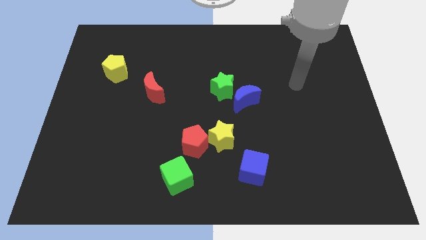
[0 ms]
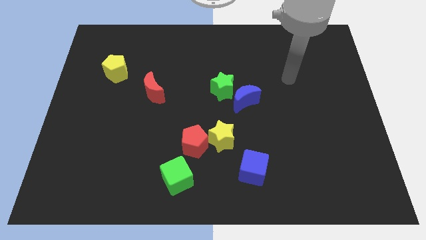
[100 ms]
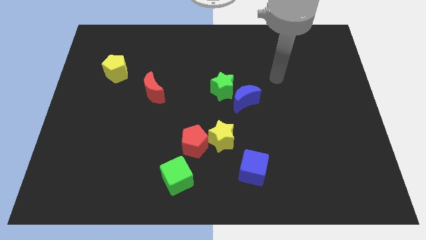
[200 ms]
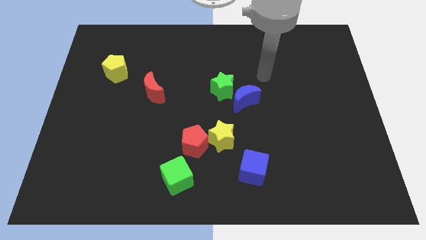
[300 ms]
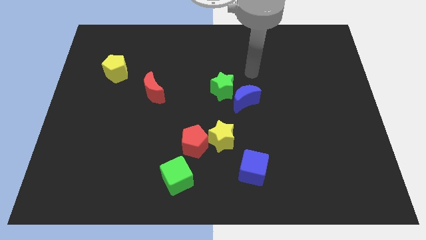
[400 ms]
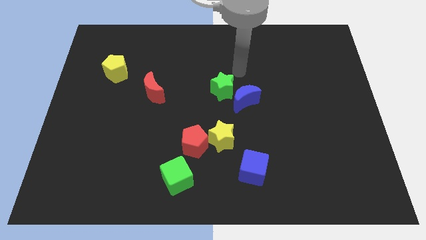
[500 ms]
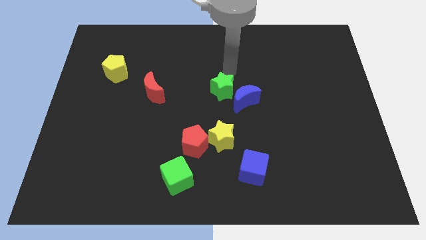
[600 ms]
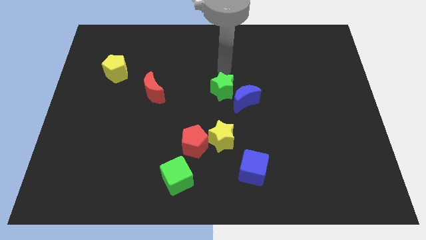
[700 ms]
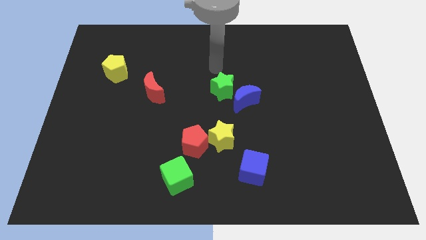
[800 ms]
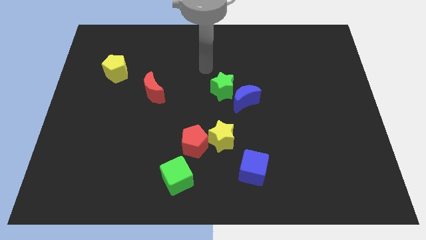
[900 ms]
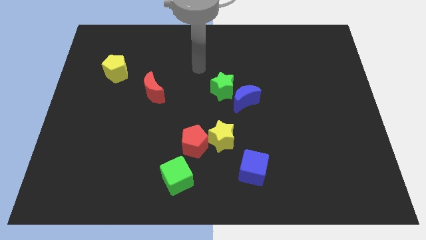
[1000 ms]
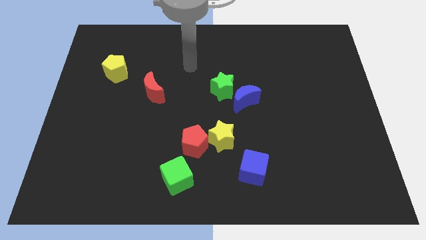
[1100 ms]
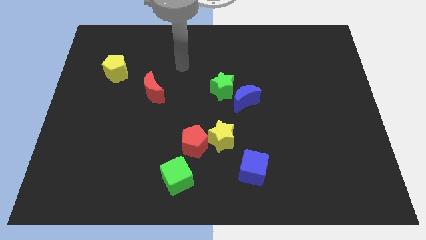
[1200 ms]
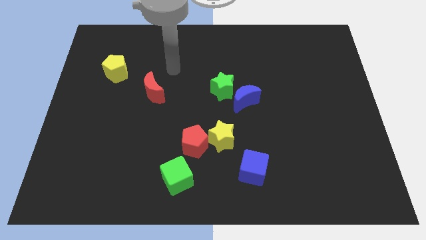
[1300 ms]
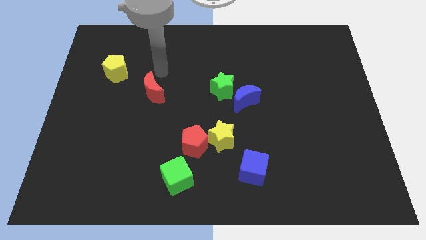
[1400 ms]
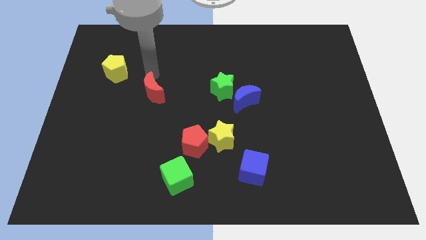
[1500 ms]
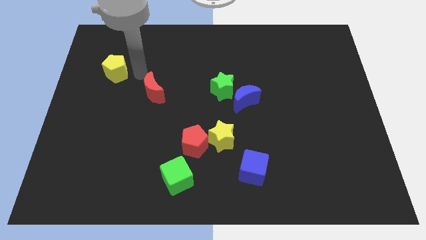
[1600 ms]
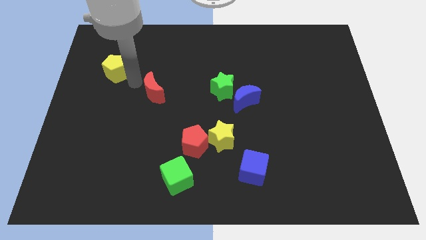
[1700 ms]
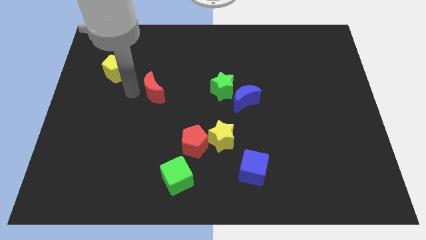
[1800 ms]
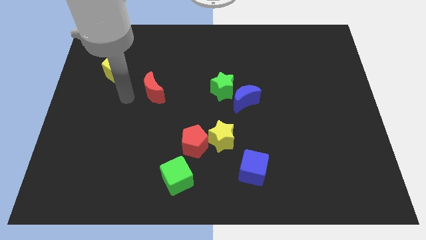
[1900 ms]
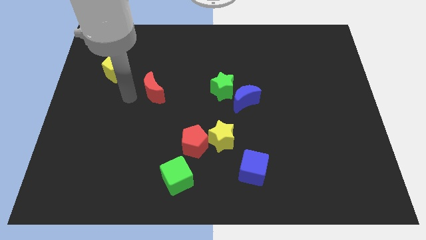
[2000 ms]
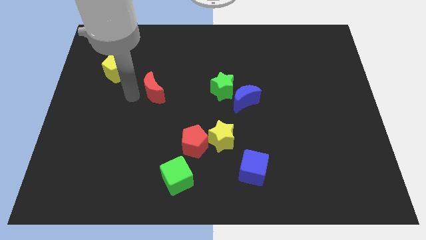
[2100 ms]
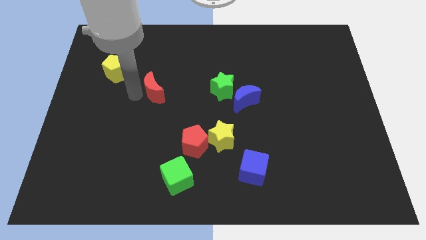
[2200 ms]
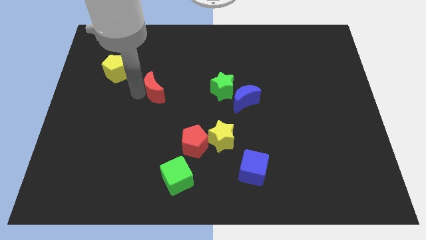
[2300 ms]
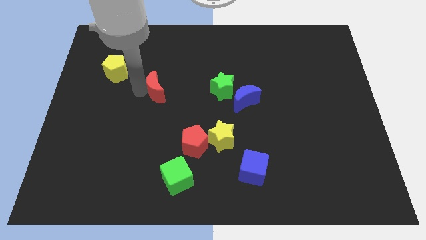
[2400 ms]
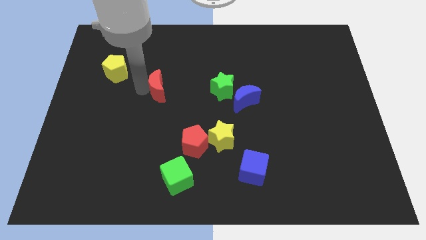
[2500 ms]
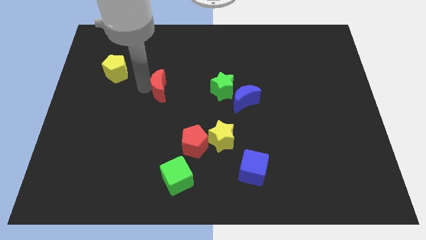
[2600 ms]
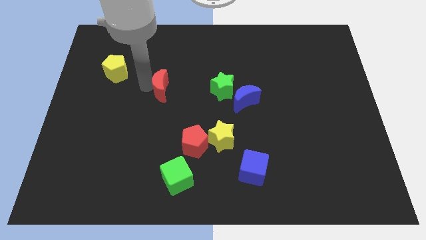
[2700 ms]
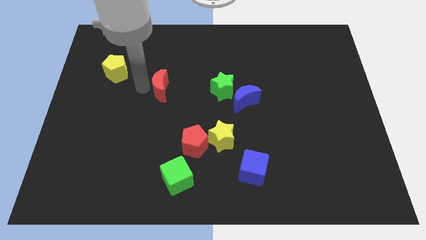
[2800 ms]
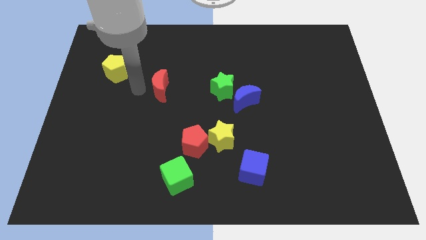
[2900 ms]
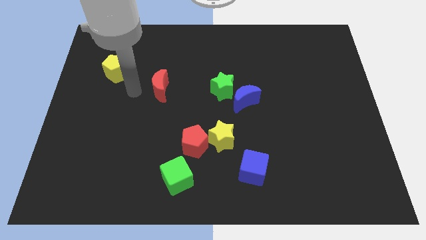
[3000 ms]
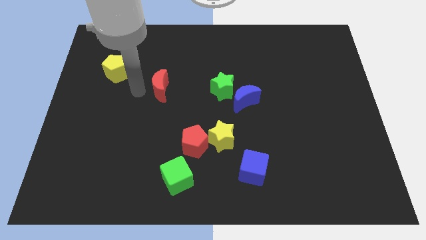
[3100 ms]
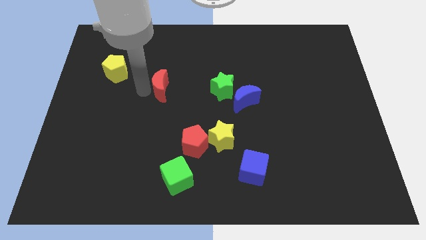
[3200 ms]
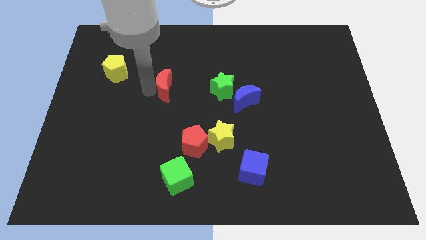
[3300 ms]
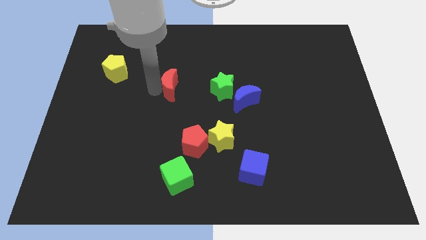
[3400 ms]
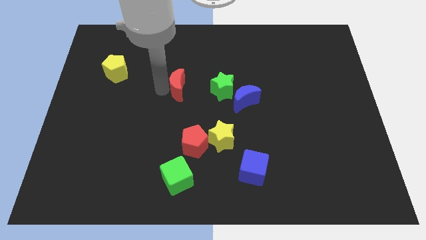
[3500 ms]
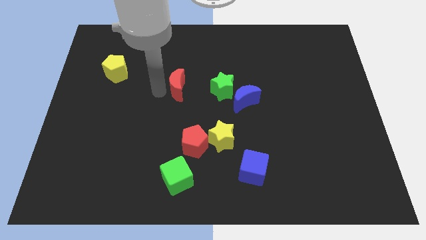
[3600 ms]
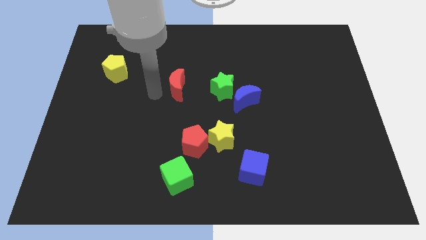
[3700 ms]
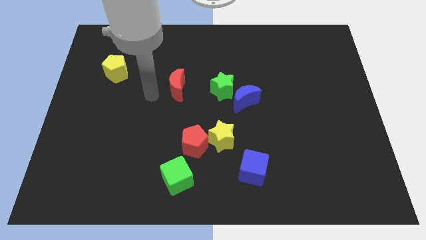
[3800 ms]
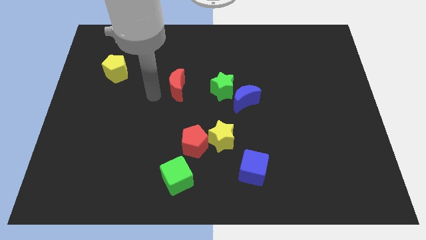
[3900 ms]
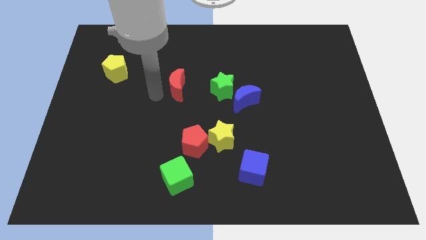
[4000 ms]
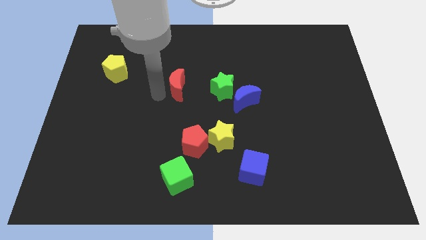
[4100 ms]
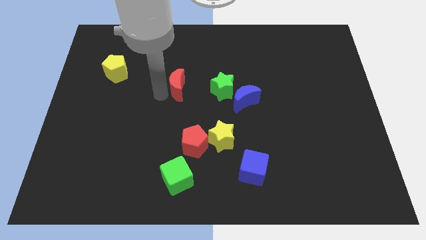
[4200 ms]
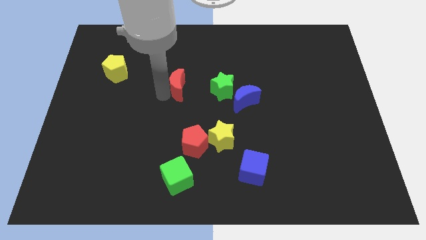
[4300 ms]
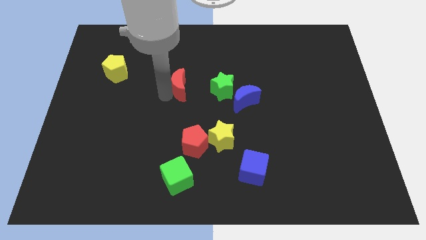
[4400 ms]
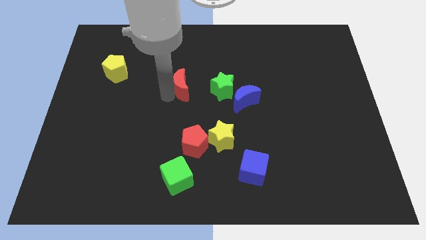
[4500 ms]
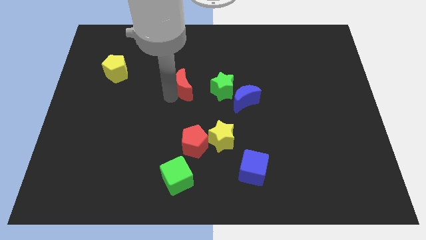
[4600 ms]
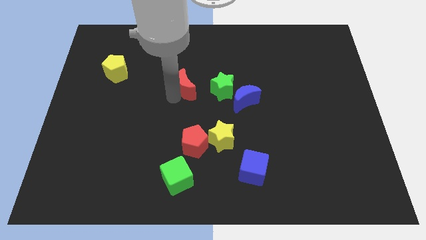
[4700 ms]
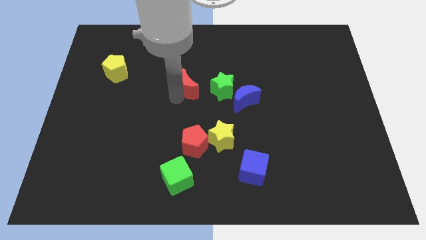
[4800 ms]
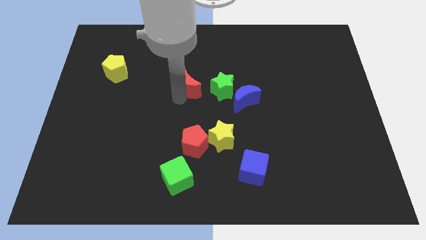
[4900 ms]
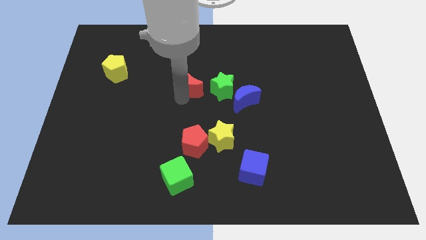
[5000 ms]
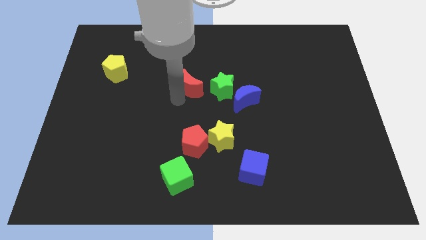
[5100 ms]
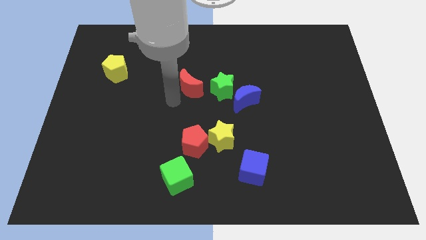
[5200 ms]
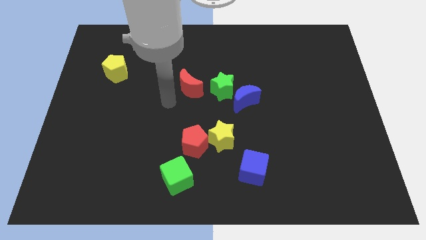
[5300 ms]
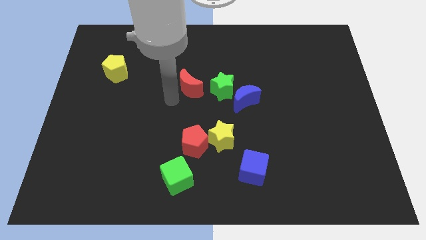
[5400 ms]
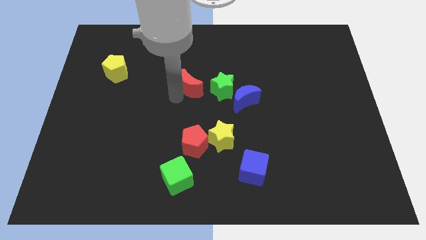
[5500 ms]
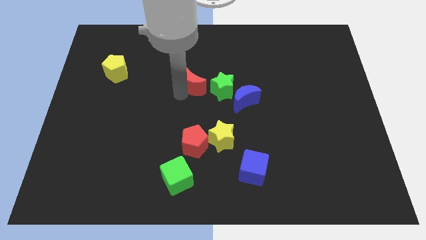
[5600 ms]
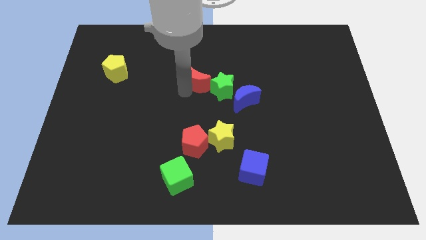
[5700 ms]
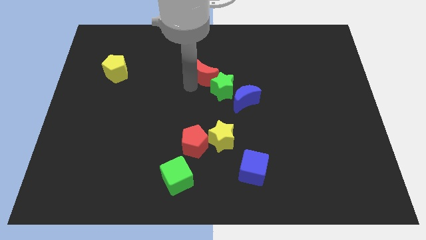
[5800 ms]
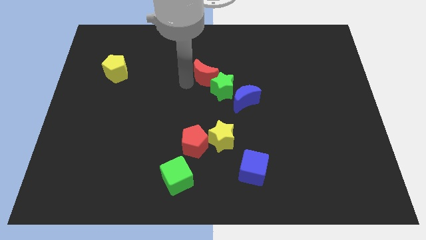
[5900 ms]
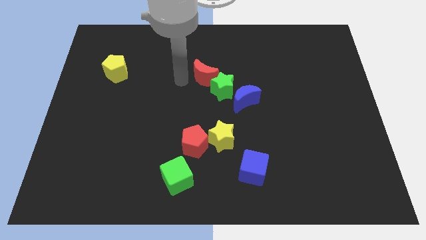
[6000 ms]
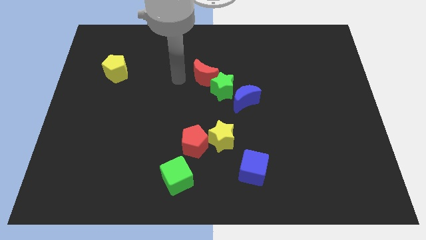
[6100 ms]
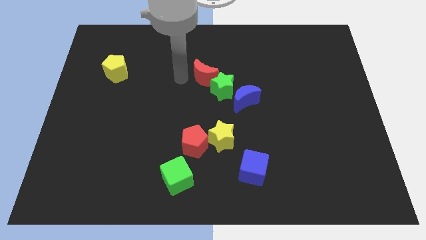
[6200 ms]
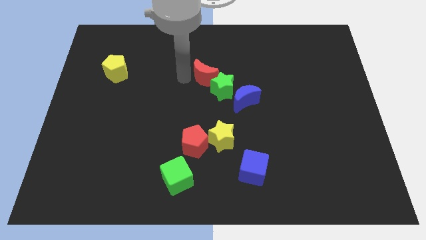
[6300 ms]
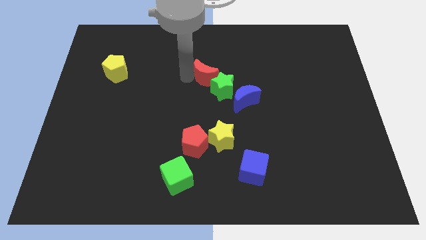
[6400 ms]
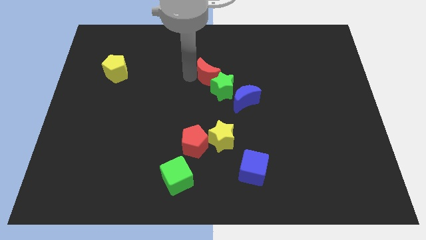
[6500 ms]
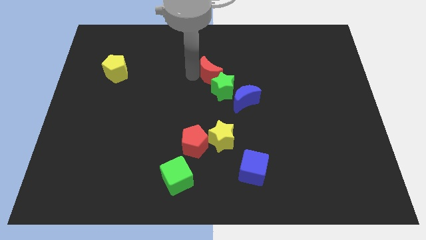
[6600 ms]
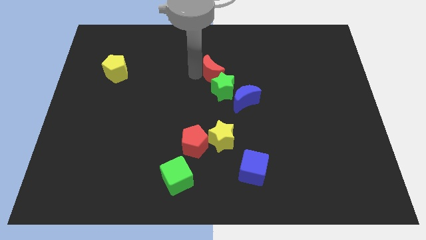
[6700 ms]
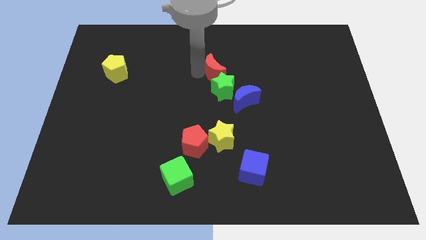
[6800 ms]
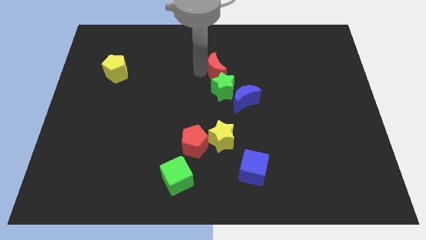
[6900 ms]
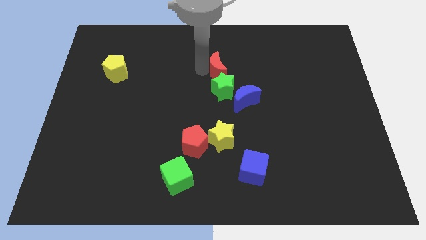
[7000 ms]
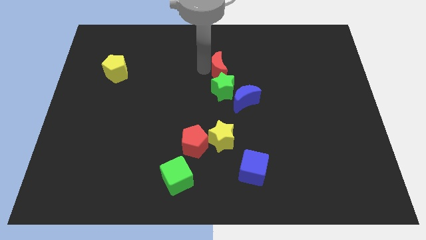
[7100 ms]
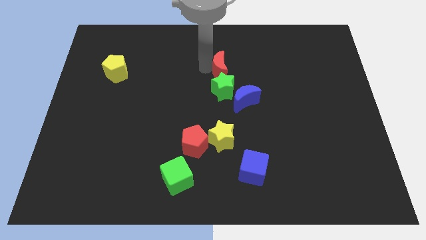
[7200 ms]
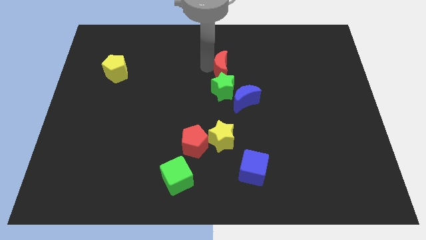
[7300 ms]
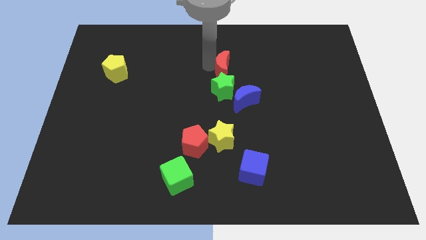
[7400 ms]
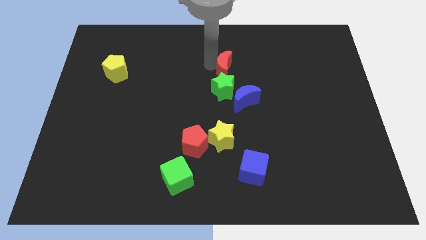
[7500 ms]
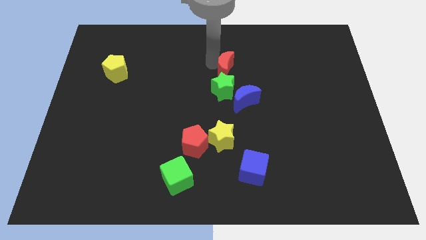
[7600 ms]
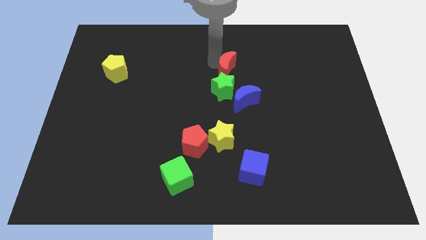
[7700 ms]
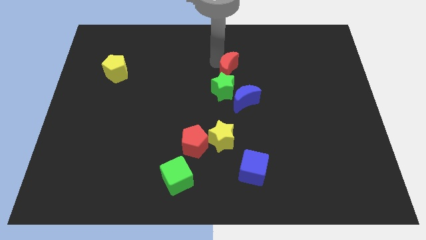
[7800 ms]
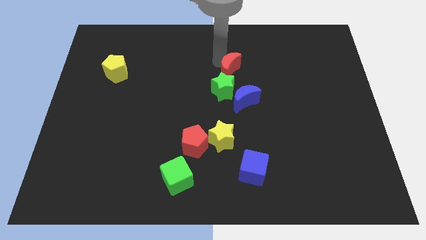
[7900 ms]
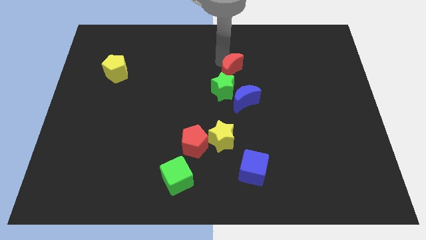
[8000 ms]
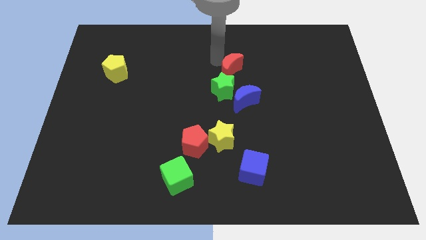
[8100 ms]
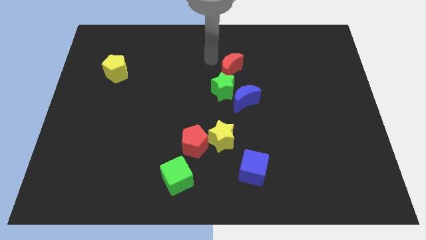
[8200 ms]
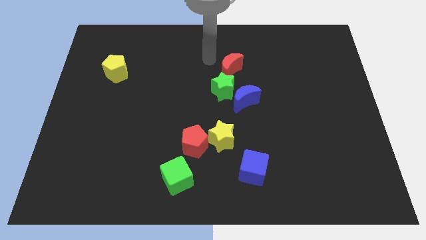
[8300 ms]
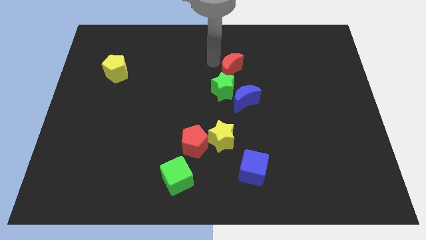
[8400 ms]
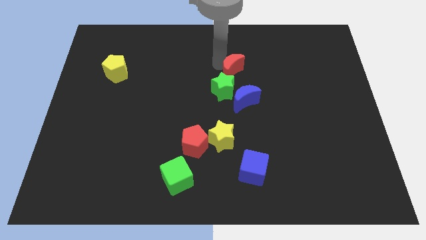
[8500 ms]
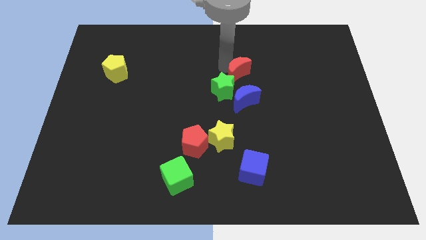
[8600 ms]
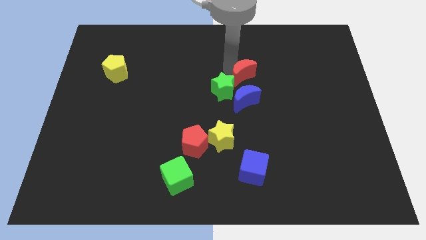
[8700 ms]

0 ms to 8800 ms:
slide the red moon to the right
